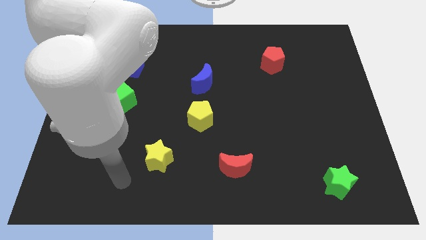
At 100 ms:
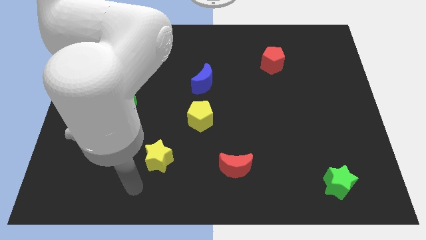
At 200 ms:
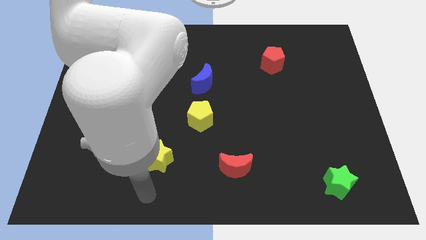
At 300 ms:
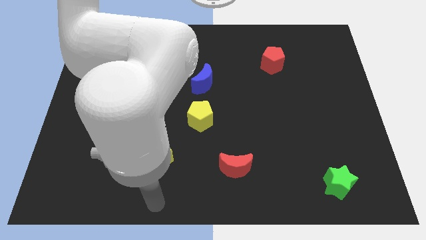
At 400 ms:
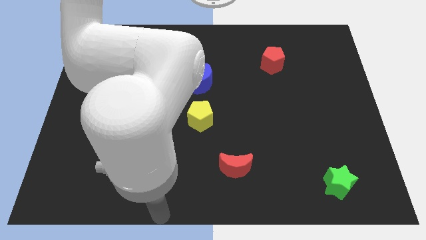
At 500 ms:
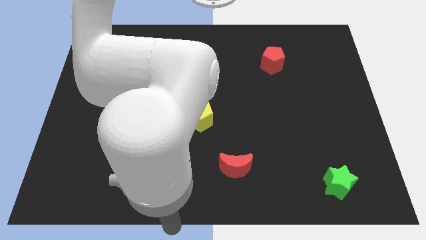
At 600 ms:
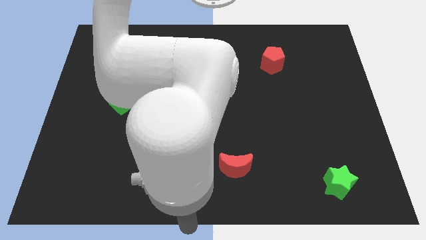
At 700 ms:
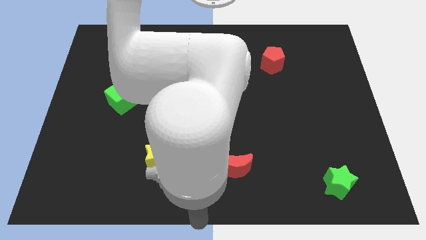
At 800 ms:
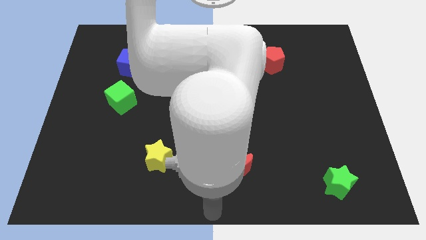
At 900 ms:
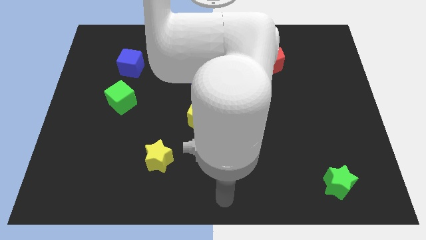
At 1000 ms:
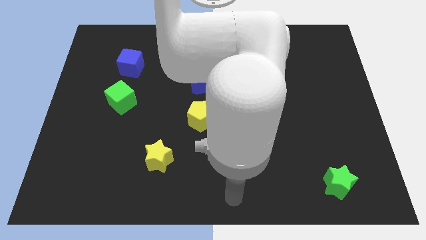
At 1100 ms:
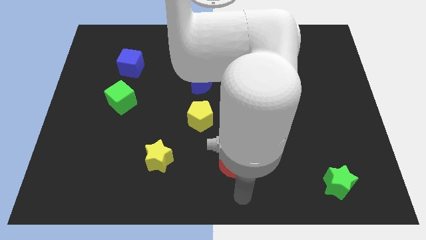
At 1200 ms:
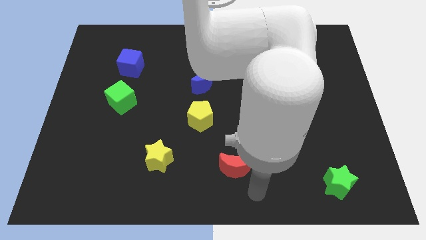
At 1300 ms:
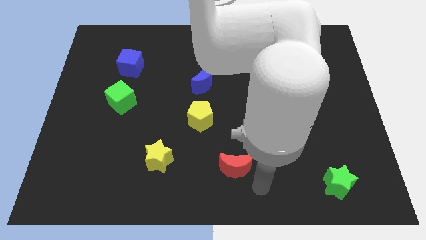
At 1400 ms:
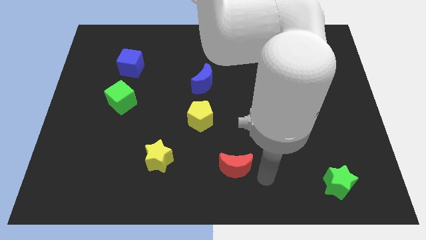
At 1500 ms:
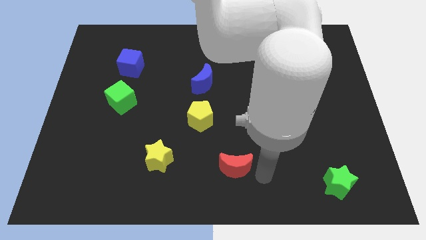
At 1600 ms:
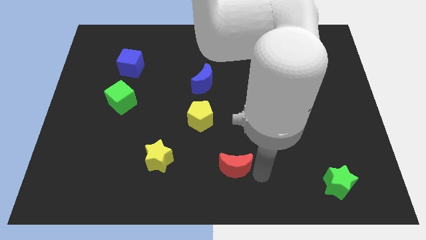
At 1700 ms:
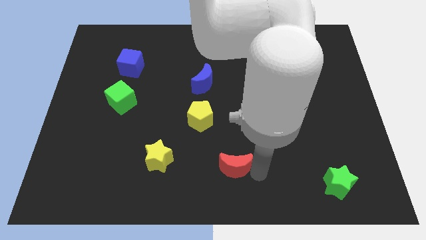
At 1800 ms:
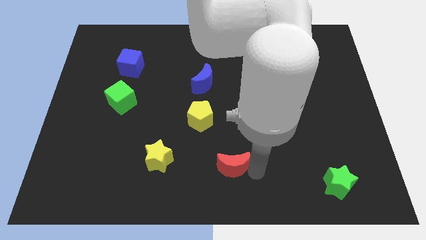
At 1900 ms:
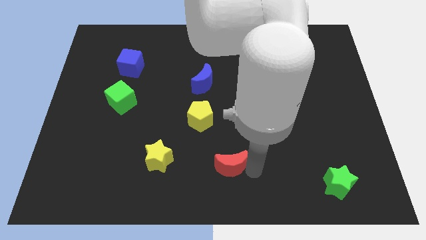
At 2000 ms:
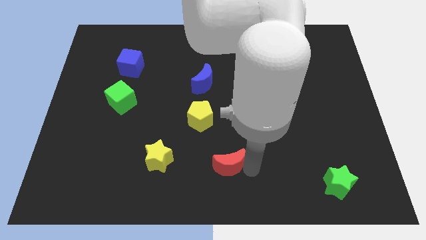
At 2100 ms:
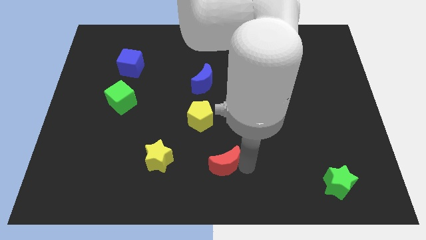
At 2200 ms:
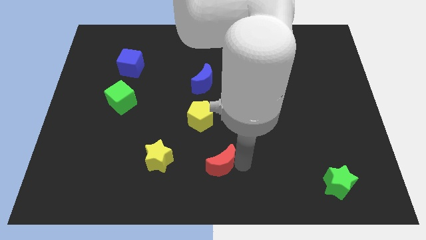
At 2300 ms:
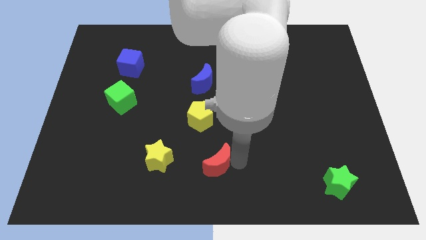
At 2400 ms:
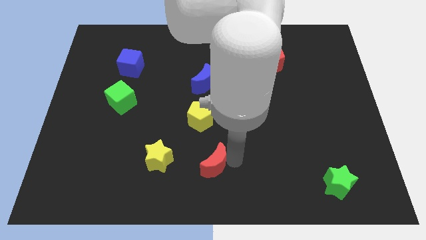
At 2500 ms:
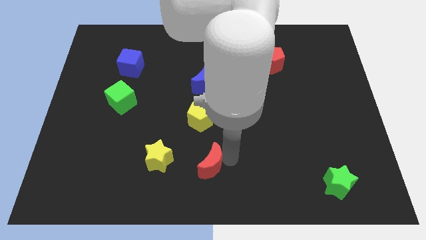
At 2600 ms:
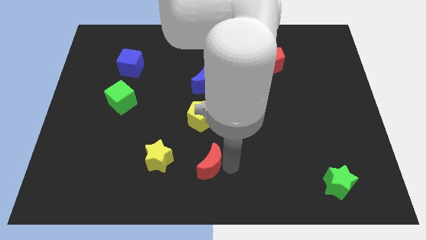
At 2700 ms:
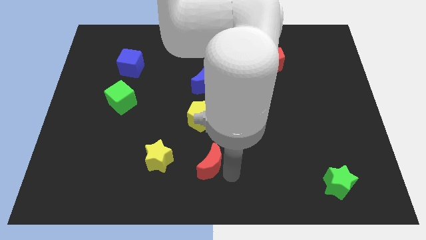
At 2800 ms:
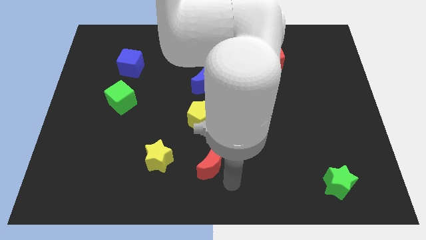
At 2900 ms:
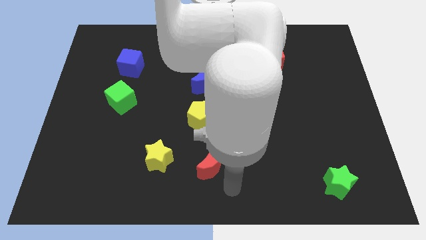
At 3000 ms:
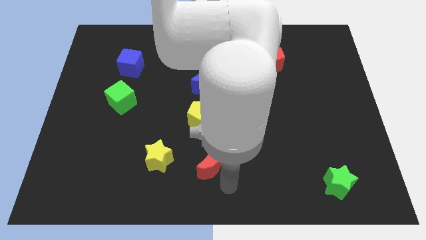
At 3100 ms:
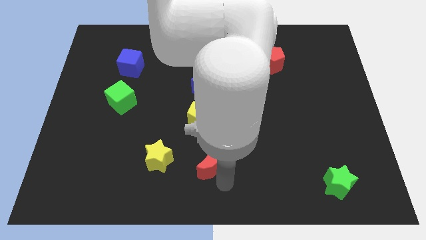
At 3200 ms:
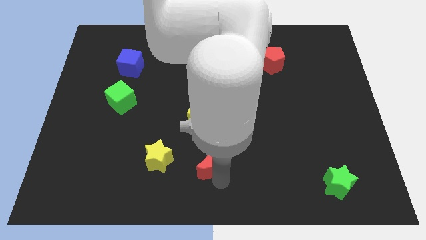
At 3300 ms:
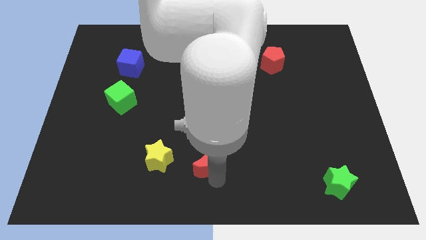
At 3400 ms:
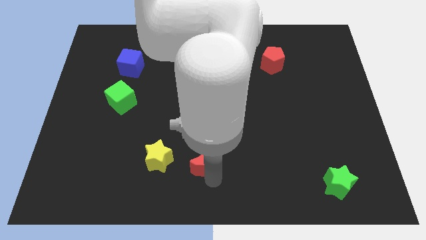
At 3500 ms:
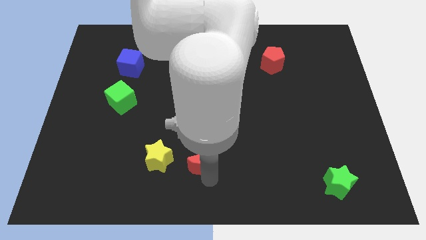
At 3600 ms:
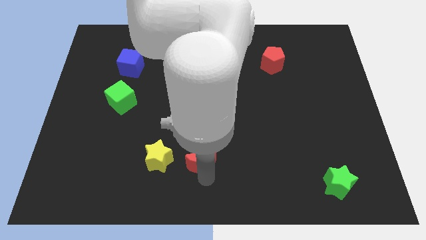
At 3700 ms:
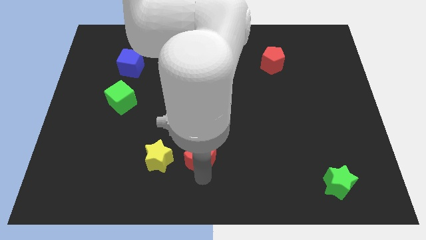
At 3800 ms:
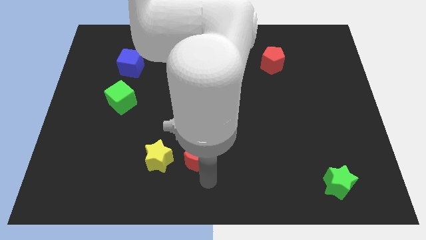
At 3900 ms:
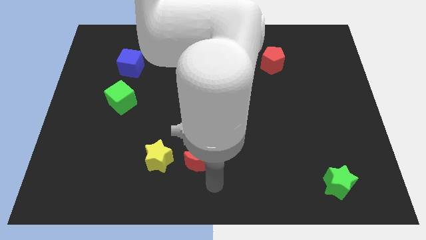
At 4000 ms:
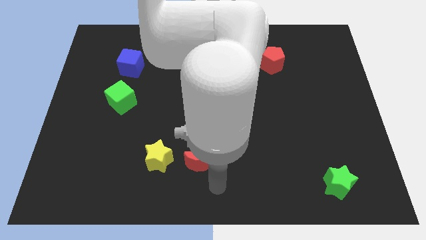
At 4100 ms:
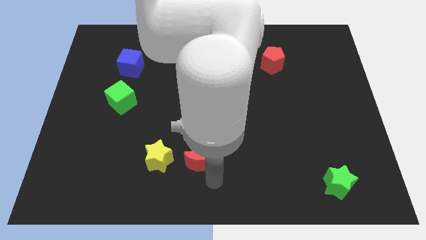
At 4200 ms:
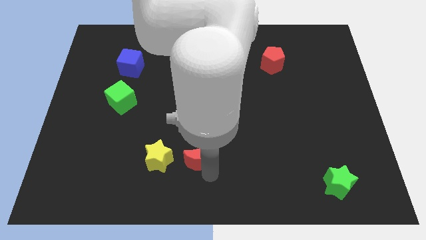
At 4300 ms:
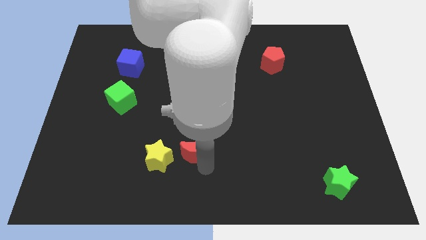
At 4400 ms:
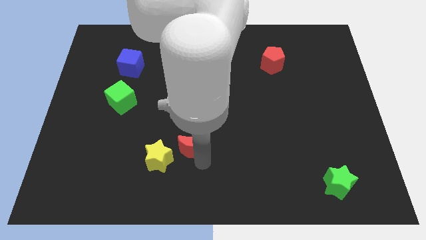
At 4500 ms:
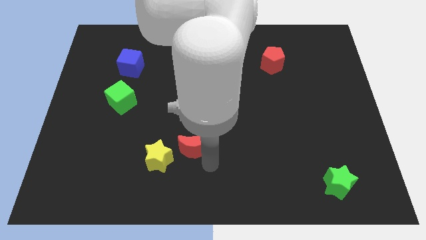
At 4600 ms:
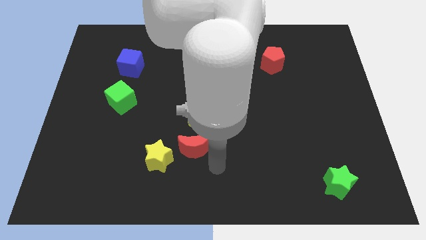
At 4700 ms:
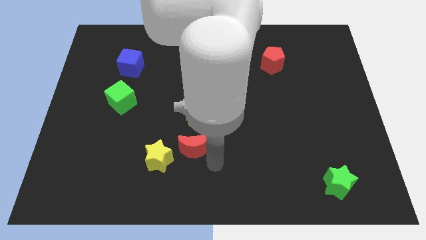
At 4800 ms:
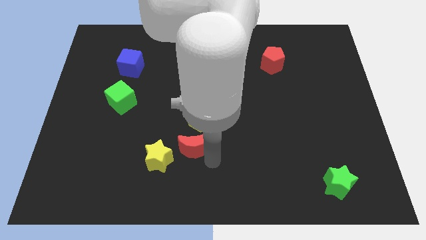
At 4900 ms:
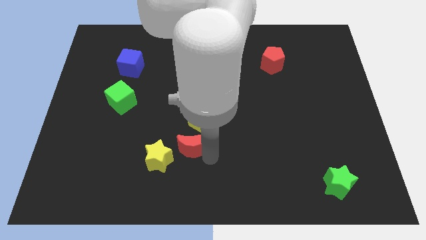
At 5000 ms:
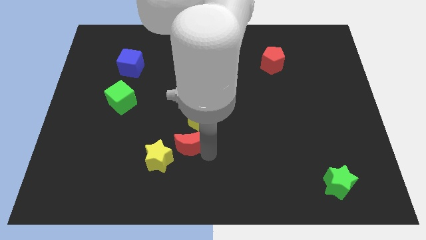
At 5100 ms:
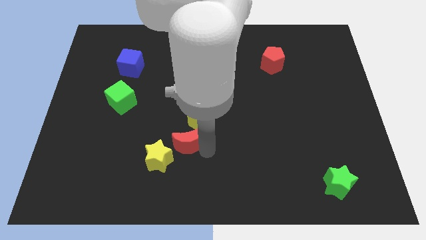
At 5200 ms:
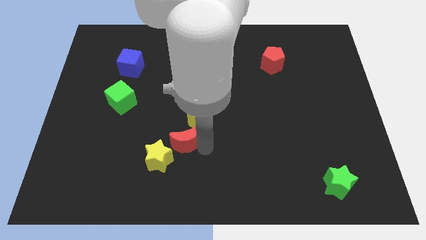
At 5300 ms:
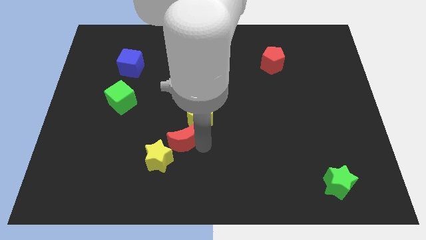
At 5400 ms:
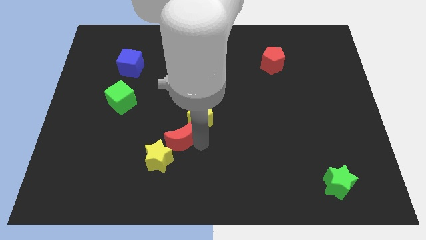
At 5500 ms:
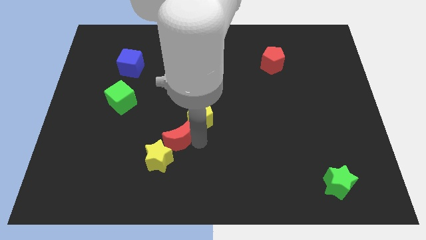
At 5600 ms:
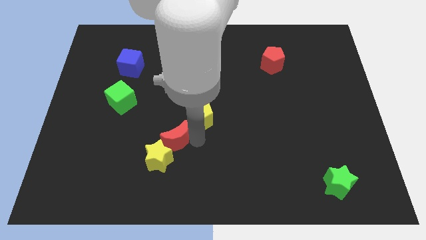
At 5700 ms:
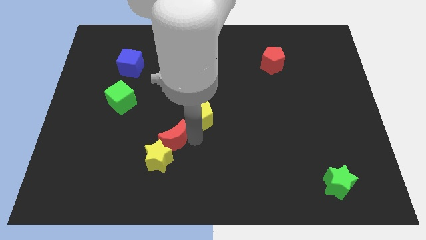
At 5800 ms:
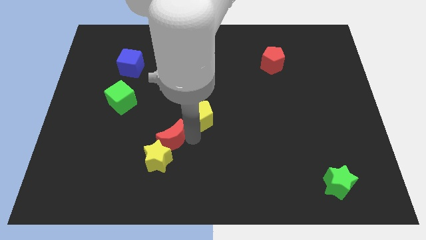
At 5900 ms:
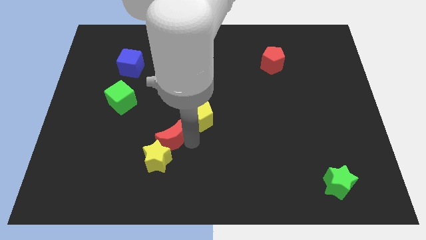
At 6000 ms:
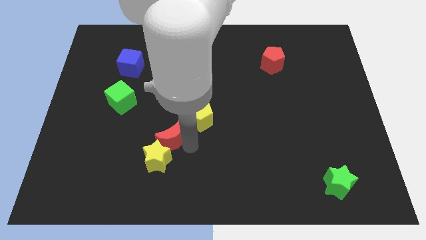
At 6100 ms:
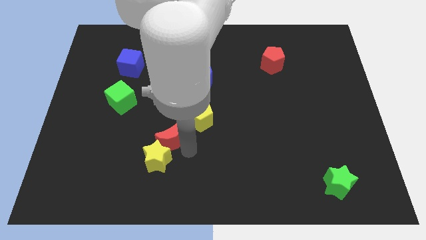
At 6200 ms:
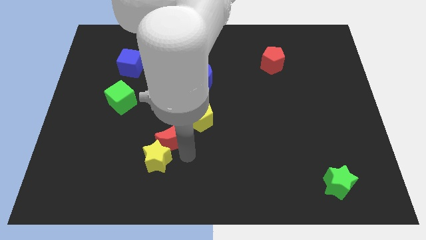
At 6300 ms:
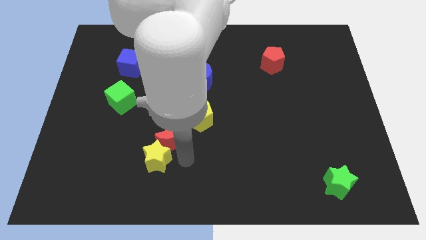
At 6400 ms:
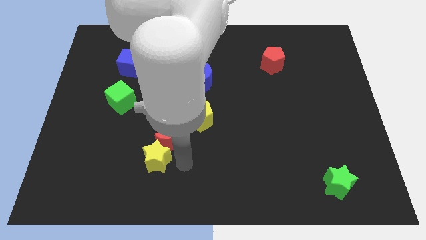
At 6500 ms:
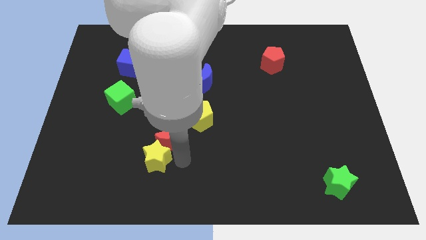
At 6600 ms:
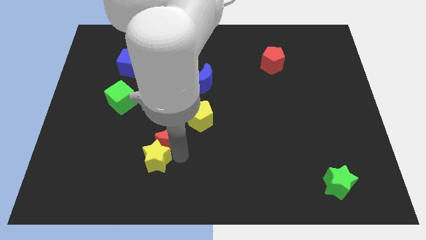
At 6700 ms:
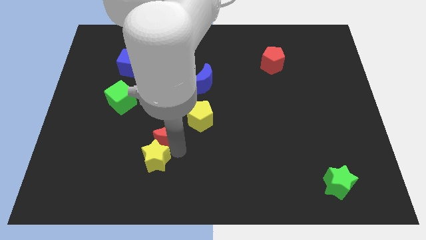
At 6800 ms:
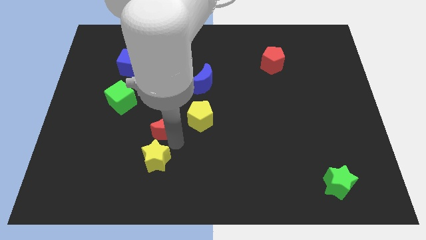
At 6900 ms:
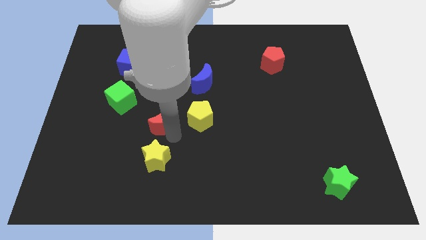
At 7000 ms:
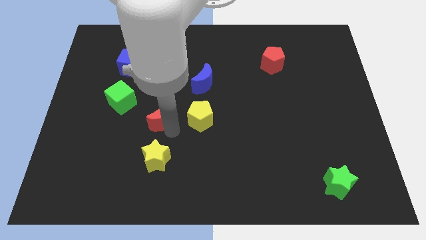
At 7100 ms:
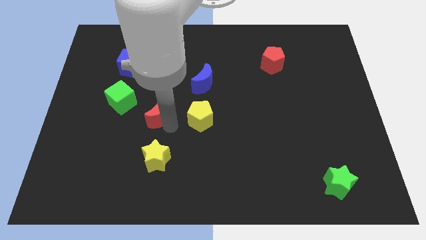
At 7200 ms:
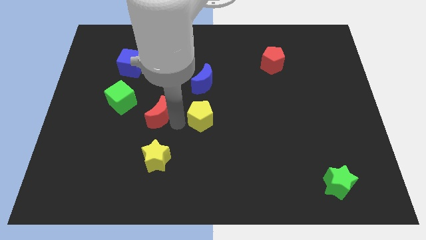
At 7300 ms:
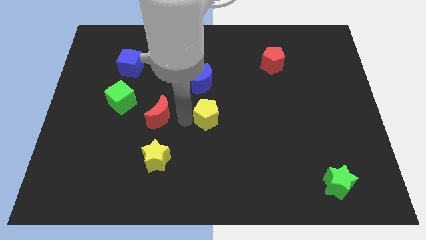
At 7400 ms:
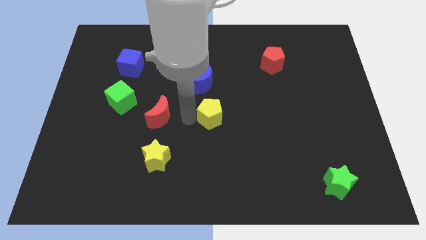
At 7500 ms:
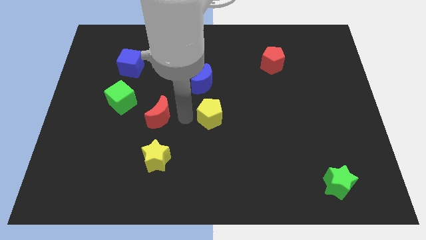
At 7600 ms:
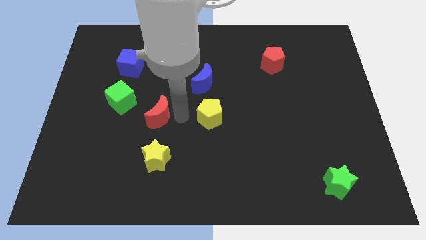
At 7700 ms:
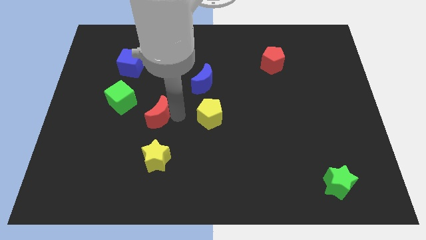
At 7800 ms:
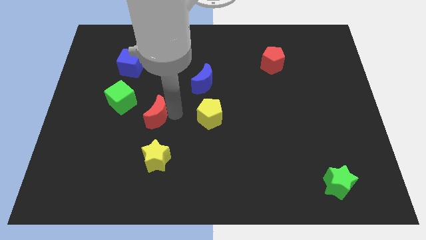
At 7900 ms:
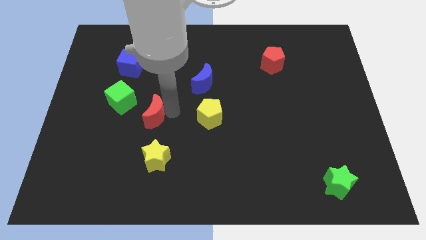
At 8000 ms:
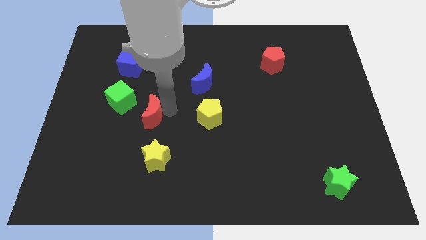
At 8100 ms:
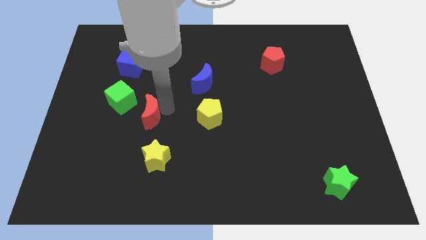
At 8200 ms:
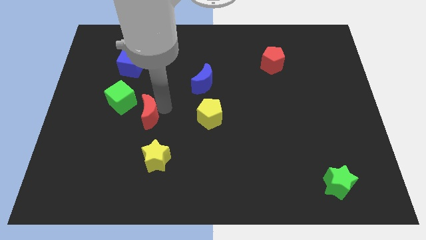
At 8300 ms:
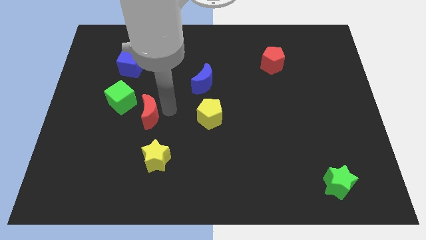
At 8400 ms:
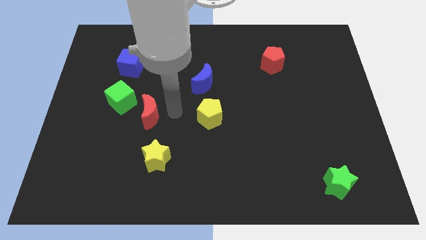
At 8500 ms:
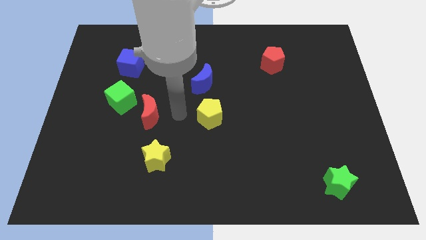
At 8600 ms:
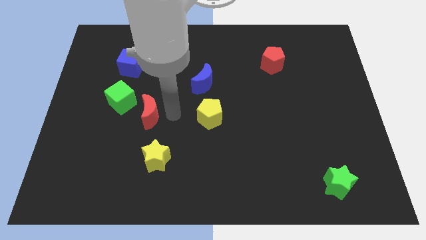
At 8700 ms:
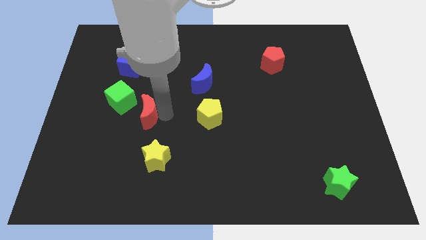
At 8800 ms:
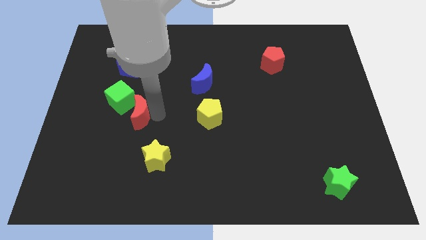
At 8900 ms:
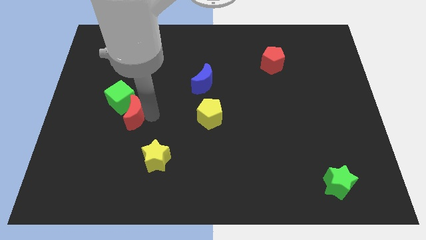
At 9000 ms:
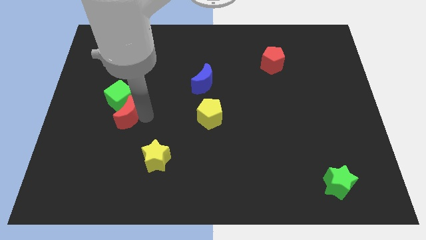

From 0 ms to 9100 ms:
move the red moon to the bottom of the blue cube
